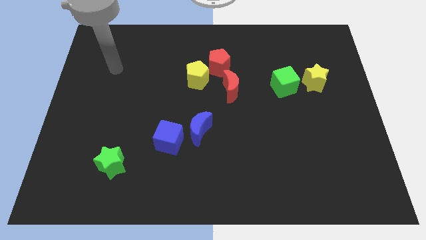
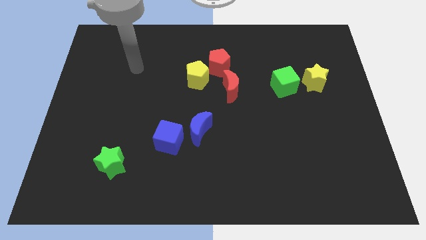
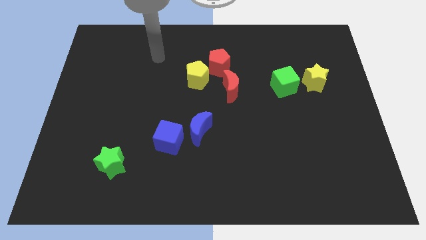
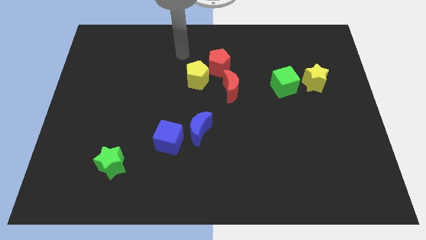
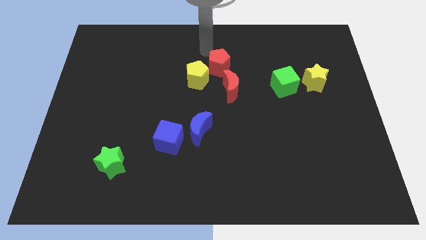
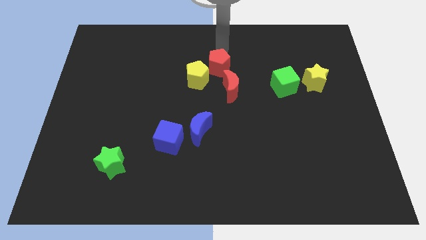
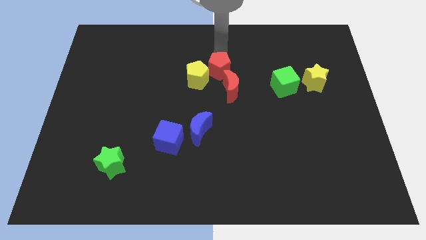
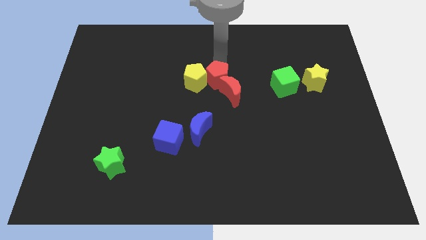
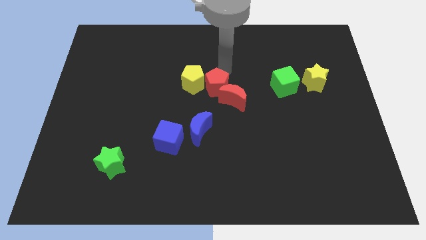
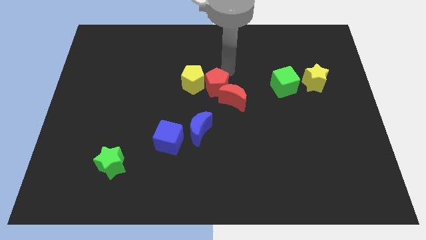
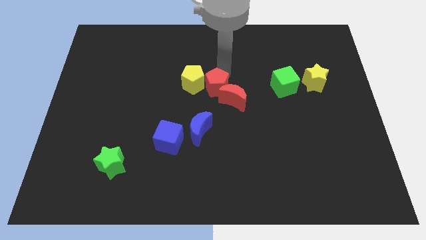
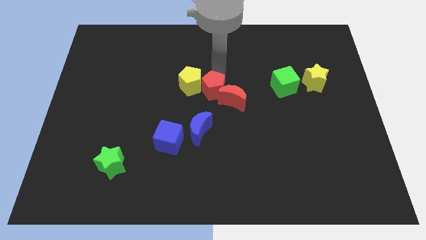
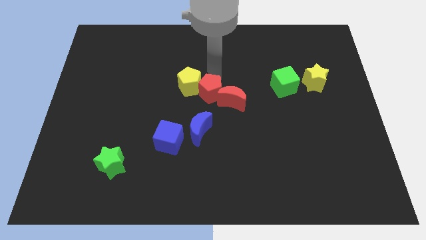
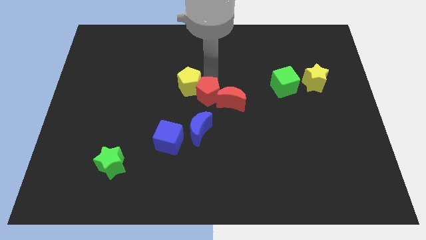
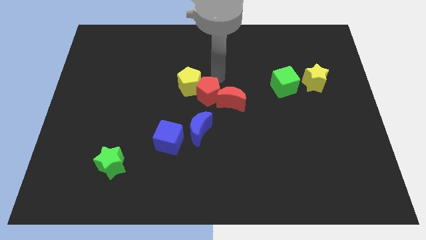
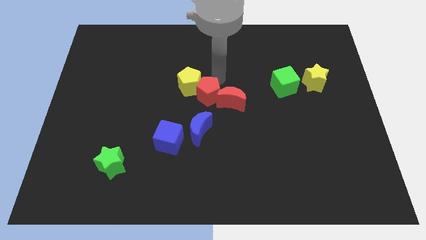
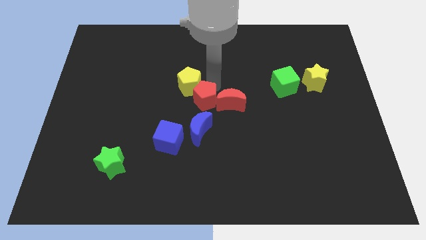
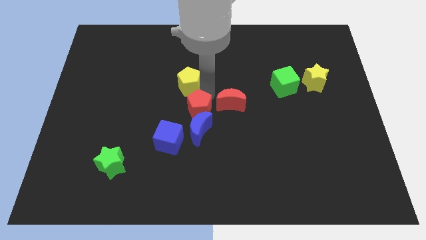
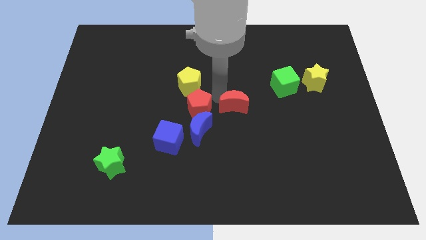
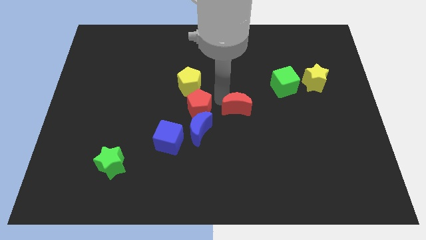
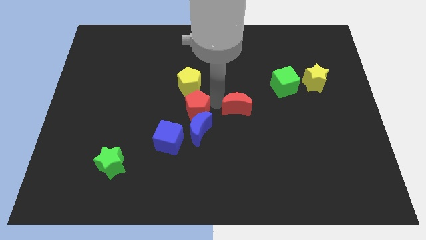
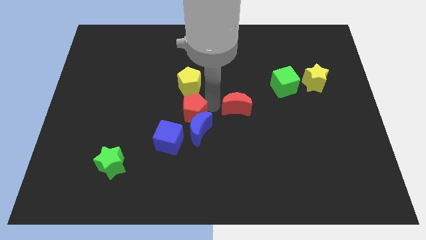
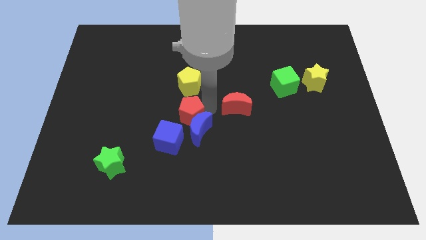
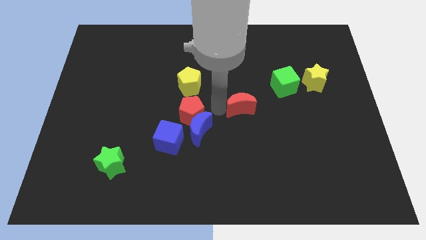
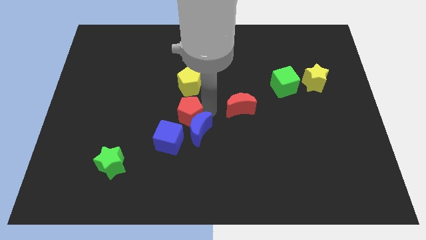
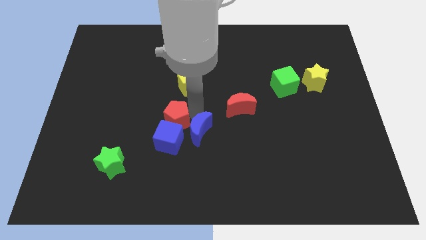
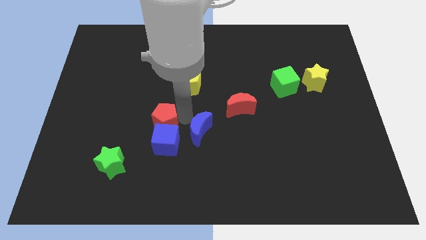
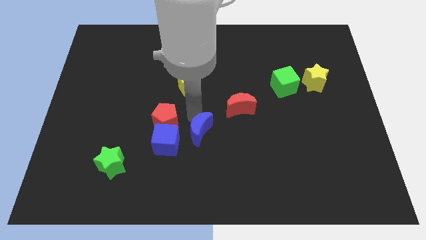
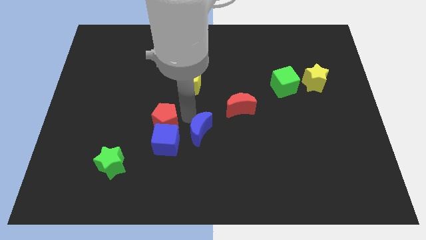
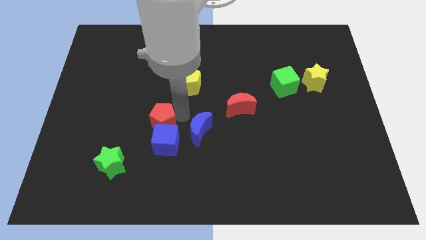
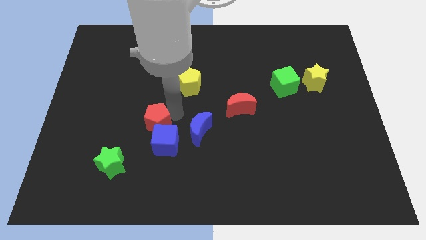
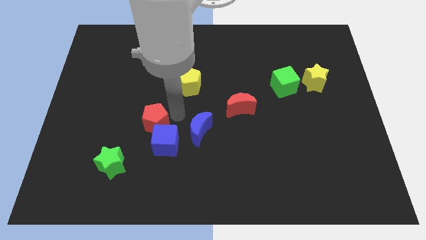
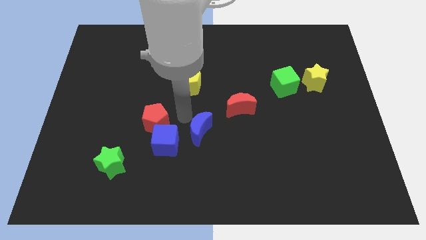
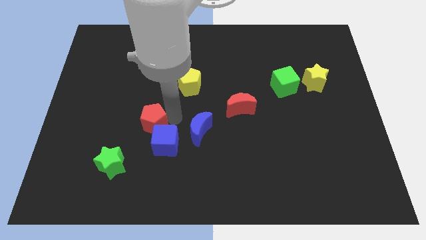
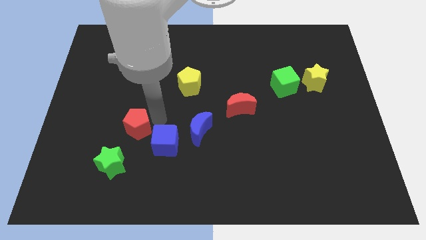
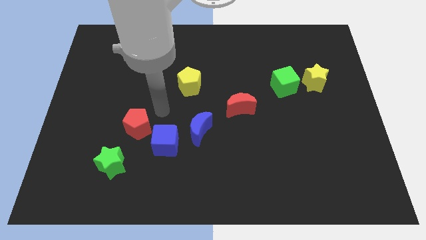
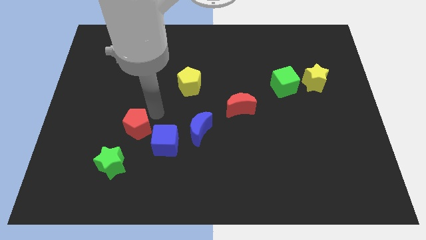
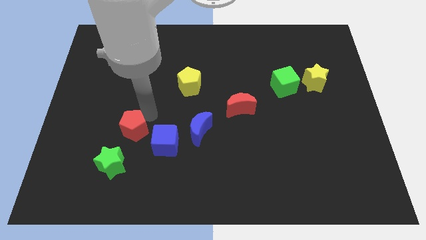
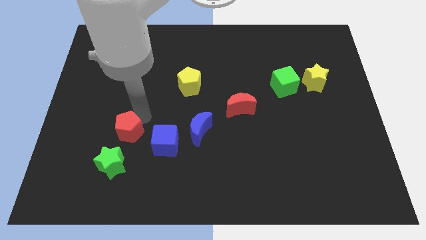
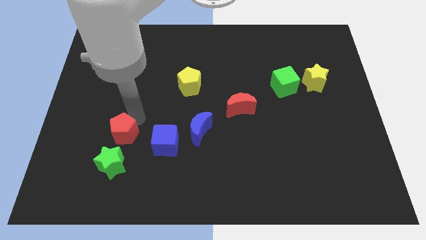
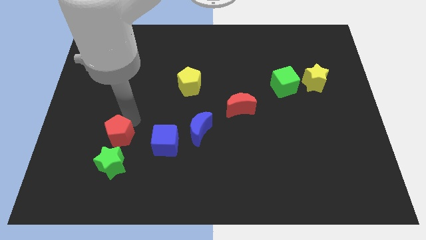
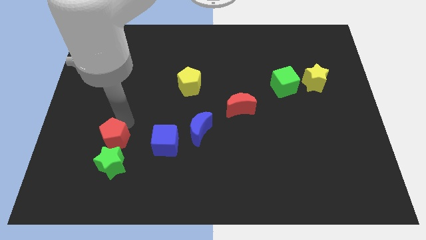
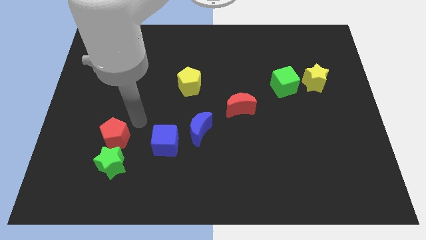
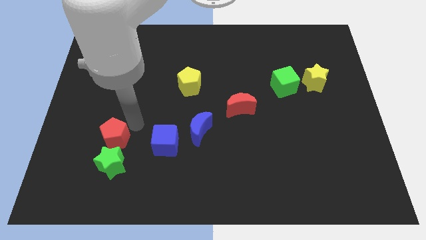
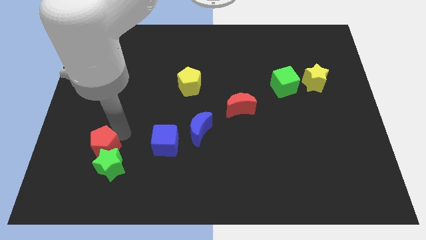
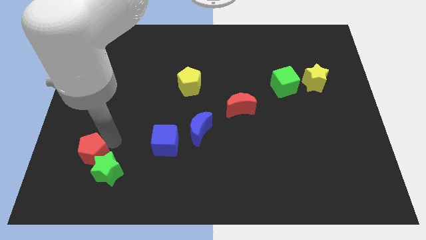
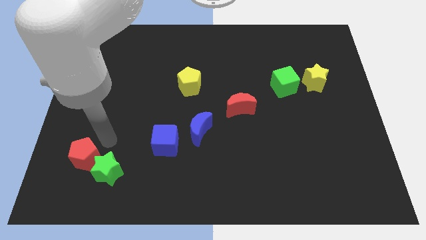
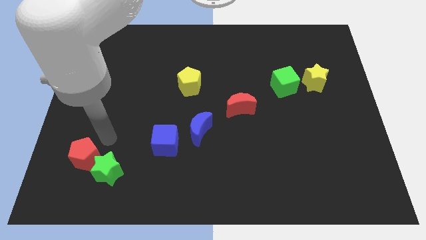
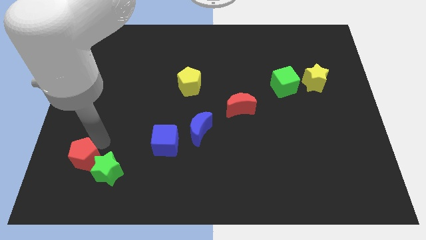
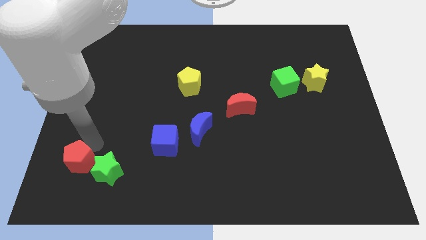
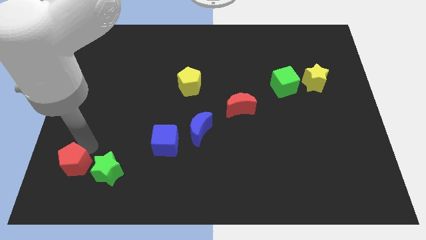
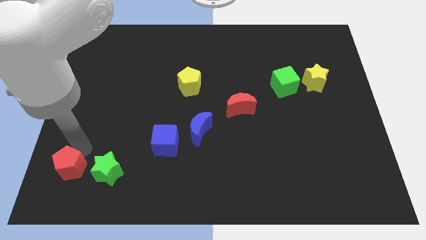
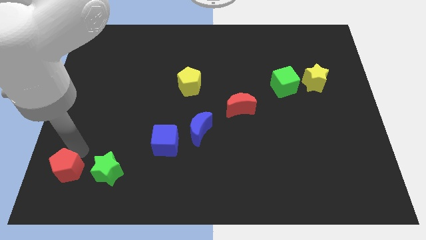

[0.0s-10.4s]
slide the red pentagon to the lower left corner

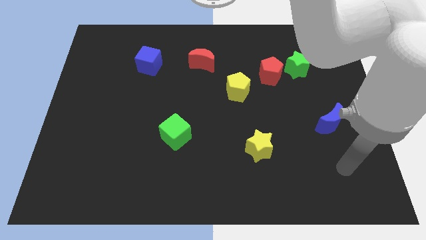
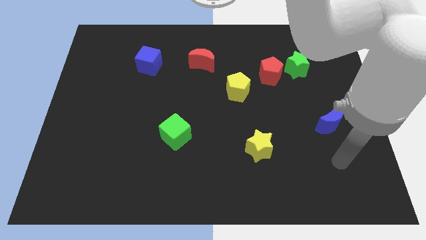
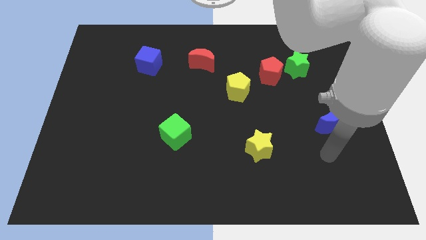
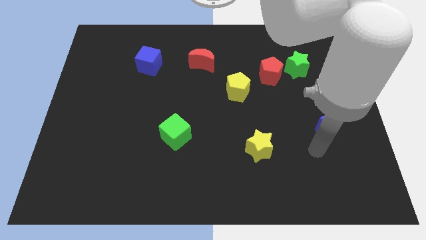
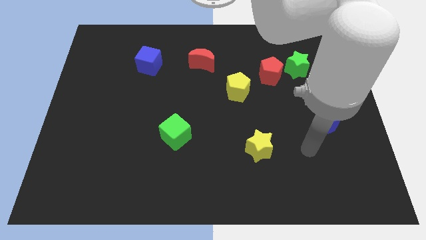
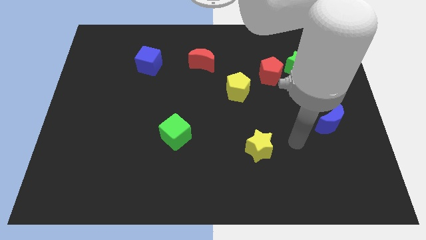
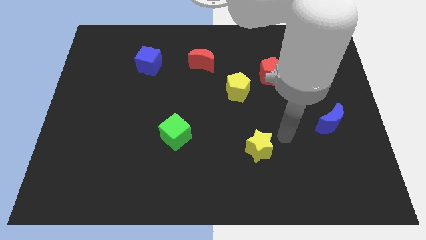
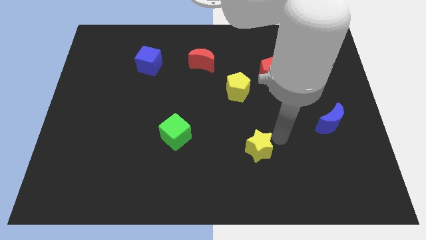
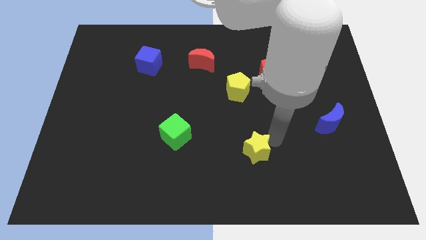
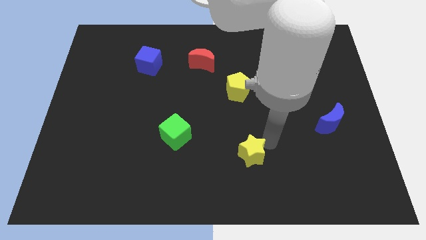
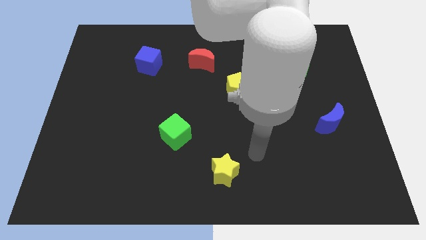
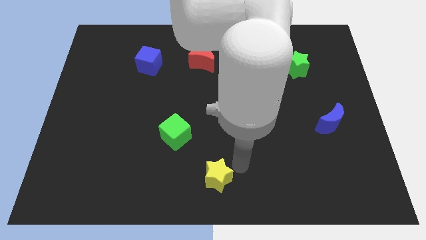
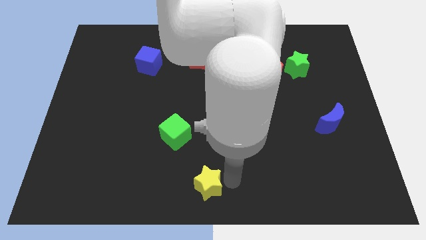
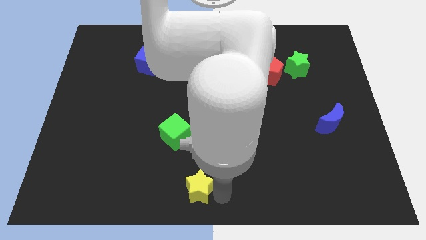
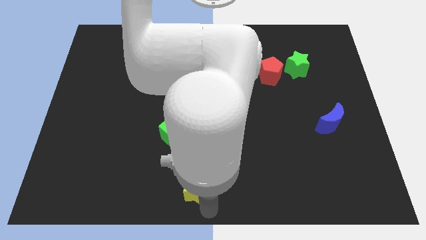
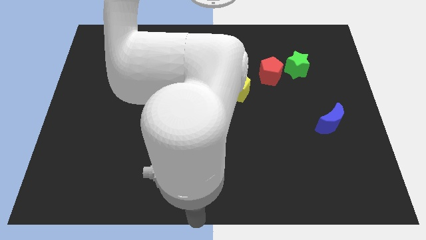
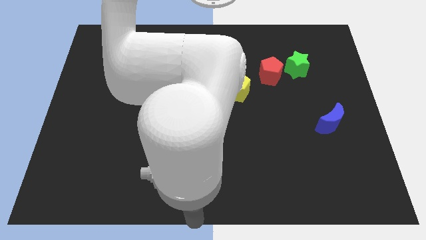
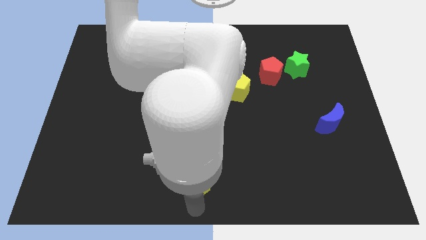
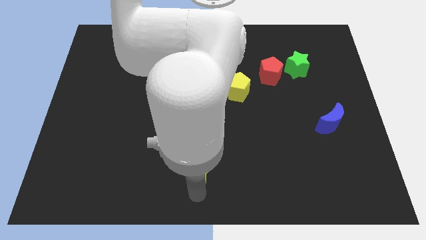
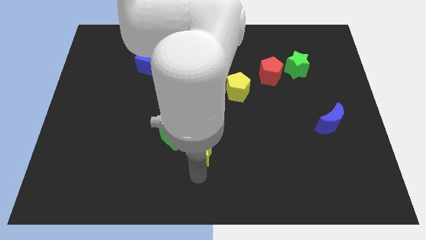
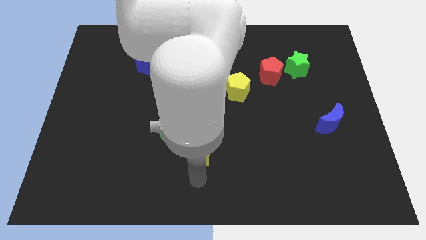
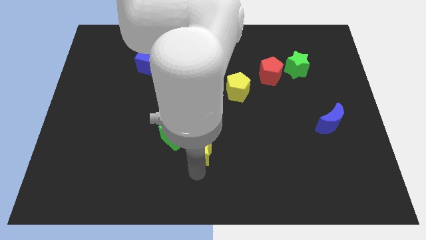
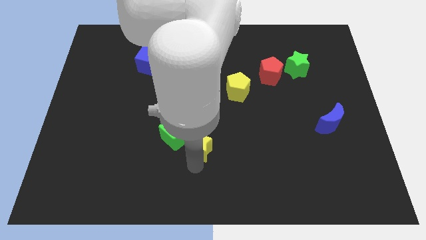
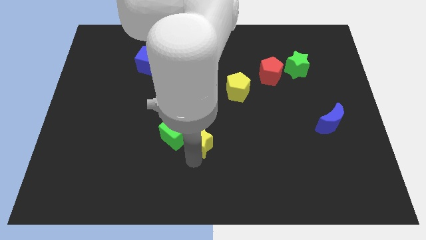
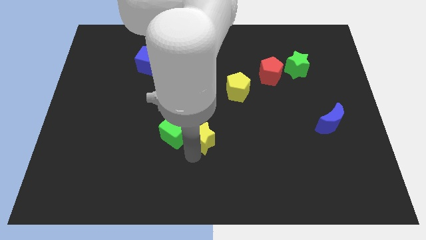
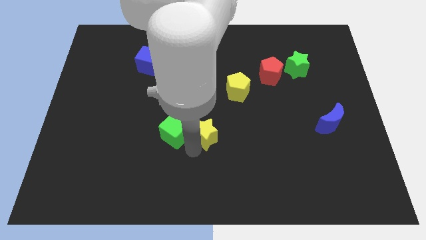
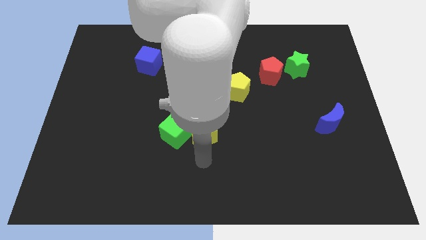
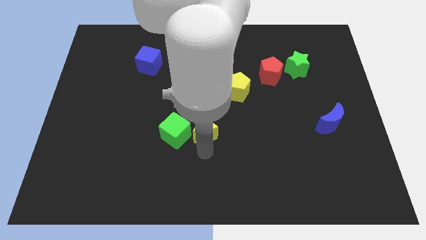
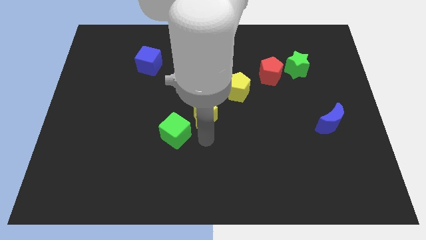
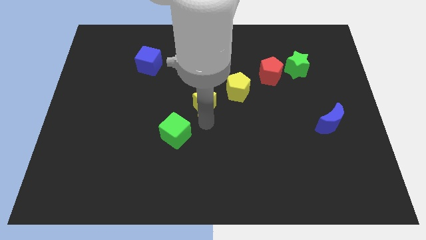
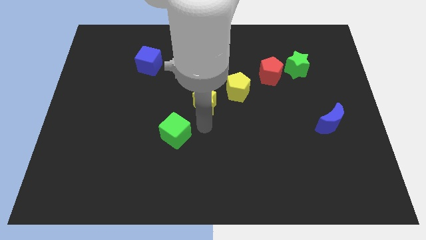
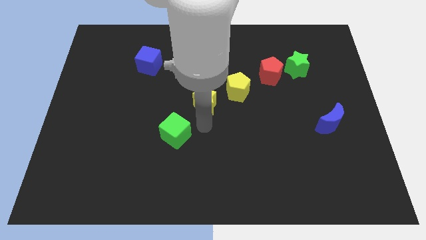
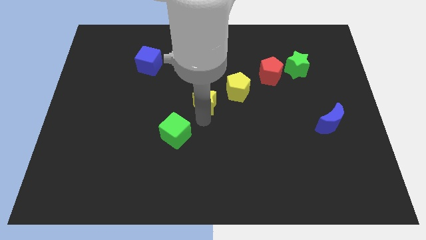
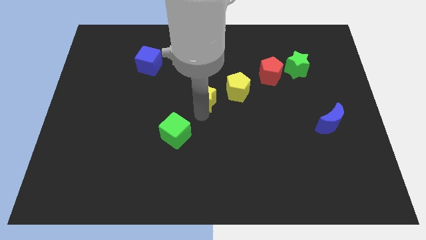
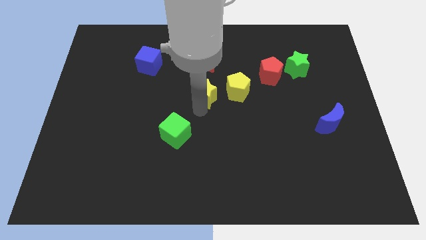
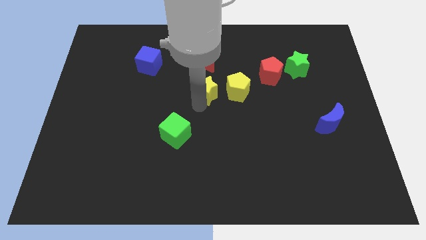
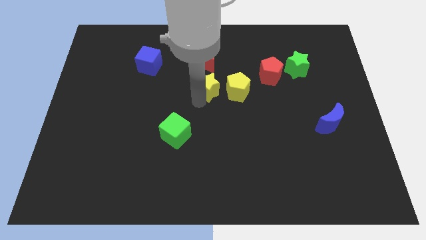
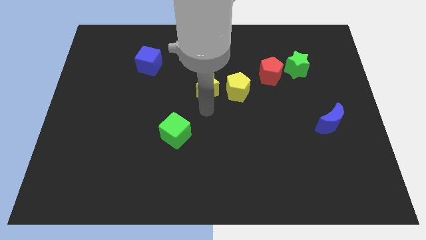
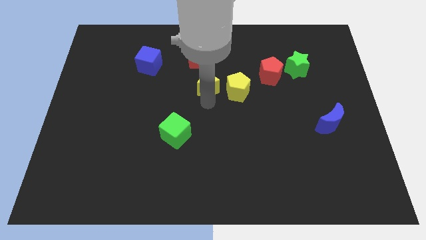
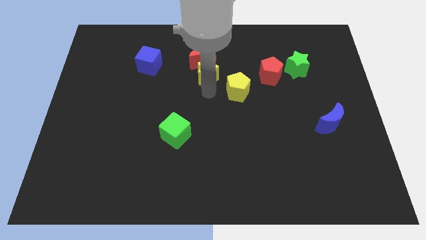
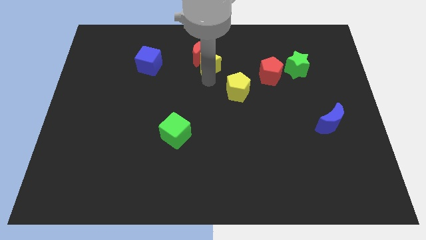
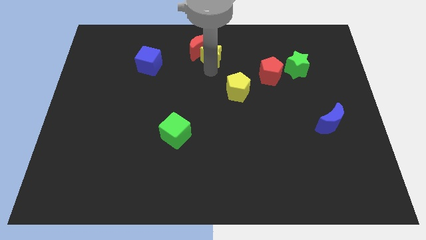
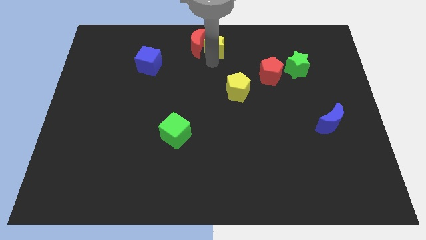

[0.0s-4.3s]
slide the yellow star to the top side
